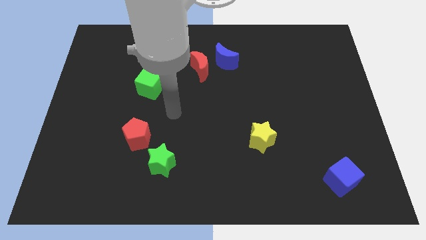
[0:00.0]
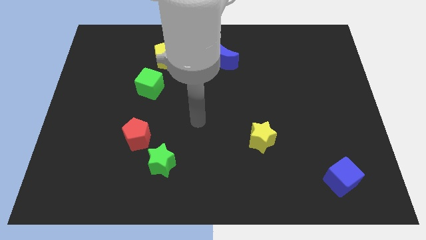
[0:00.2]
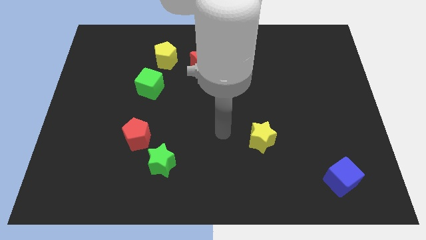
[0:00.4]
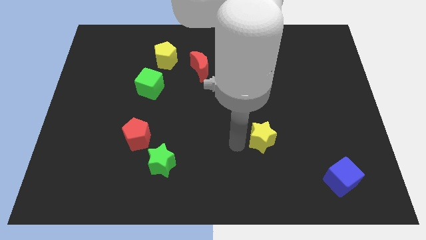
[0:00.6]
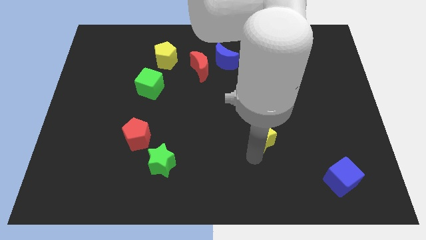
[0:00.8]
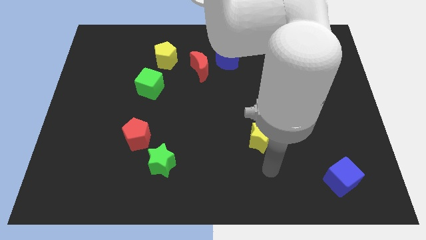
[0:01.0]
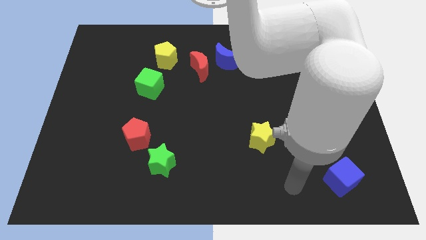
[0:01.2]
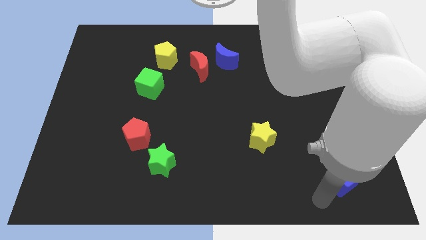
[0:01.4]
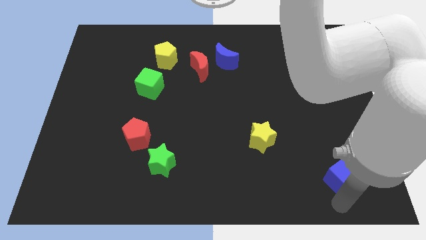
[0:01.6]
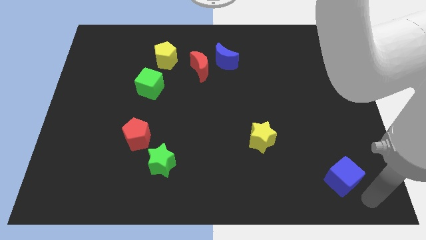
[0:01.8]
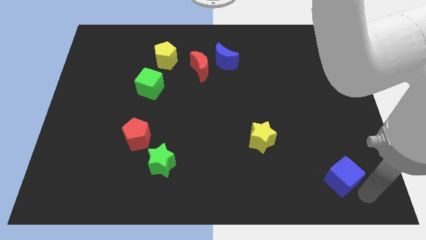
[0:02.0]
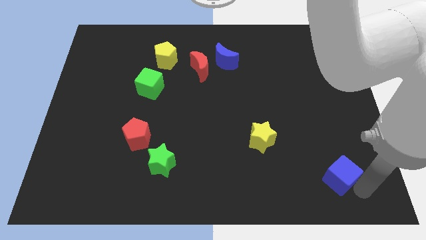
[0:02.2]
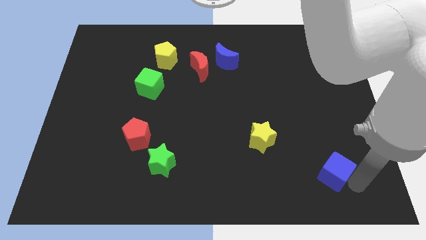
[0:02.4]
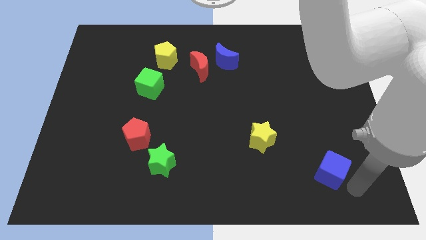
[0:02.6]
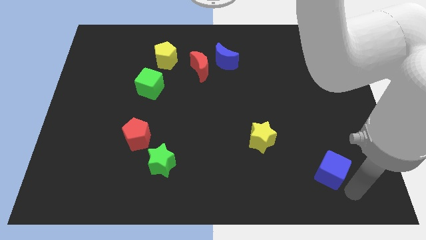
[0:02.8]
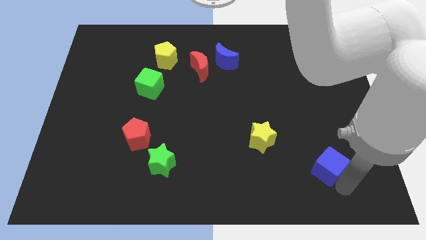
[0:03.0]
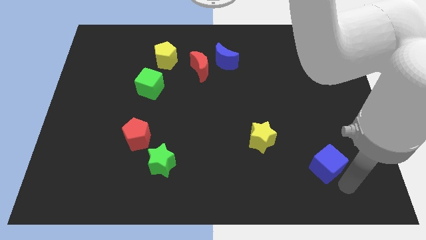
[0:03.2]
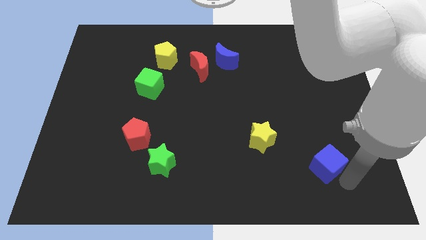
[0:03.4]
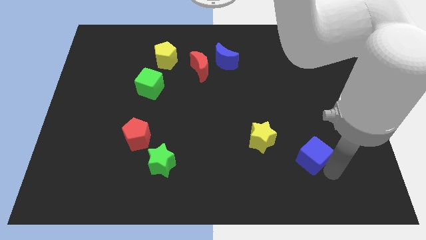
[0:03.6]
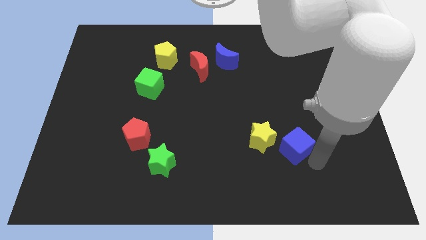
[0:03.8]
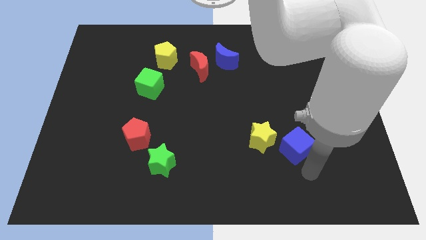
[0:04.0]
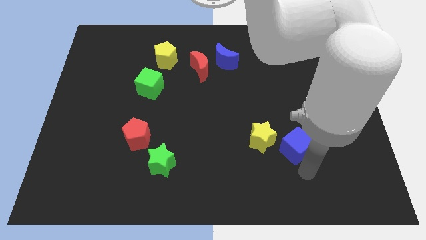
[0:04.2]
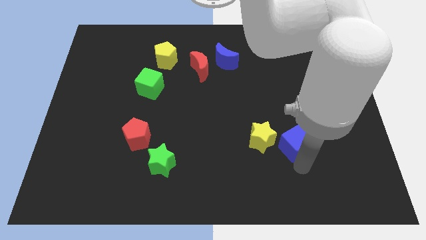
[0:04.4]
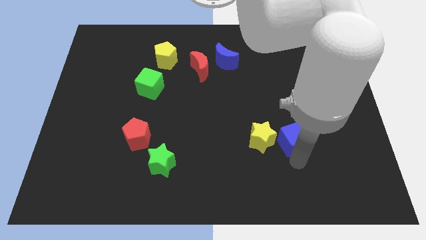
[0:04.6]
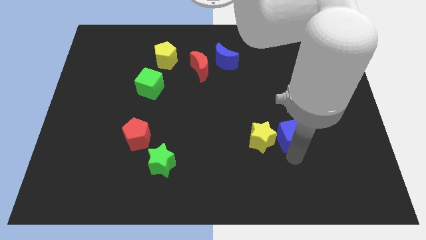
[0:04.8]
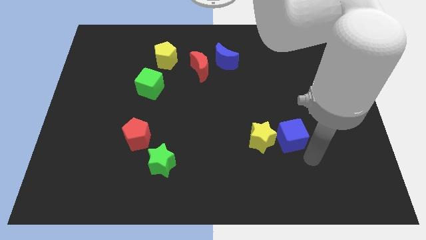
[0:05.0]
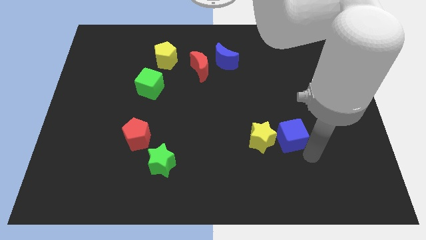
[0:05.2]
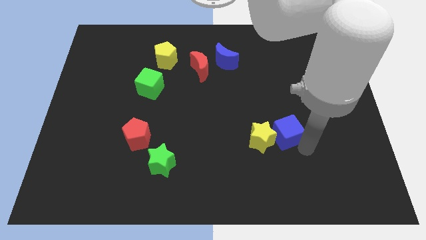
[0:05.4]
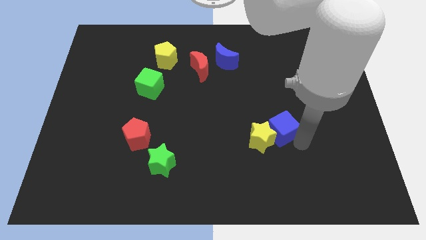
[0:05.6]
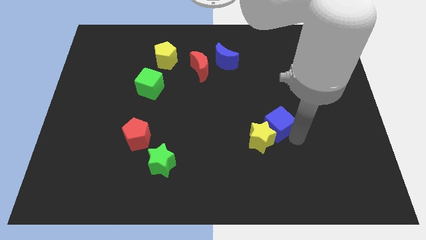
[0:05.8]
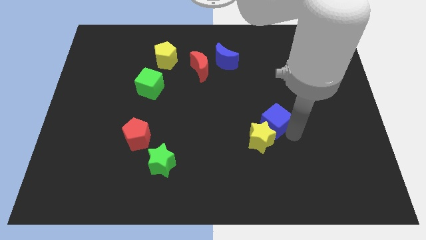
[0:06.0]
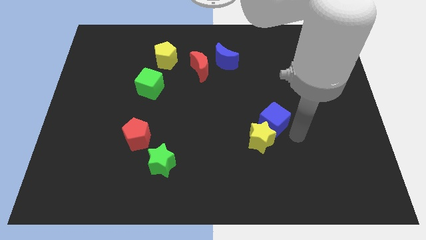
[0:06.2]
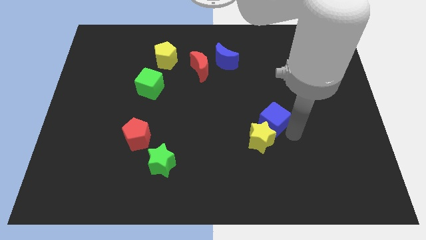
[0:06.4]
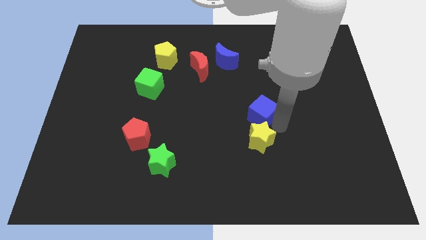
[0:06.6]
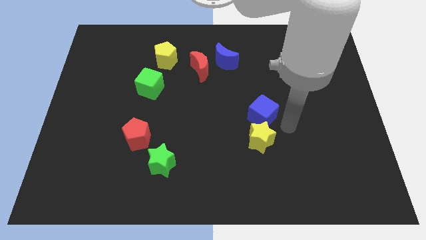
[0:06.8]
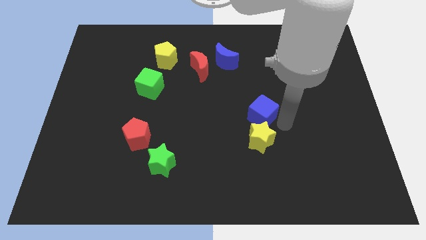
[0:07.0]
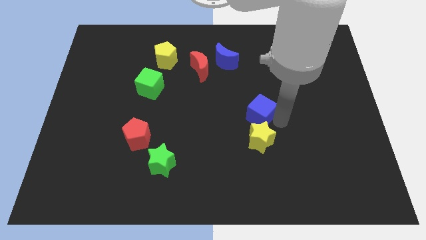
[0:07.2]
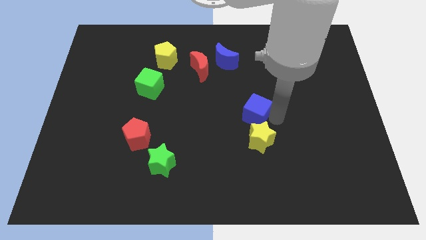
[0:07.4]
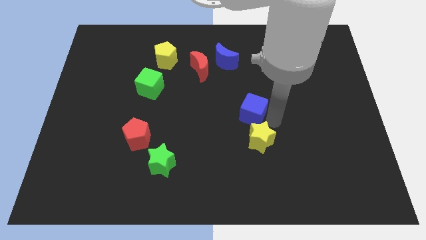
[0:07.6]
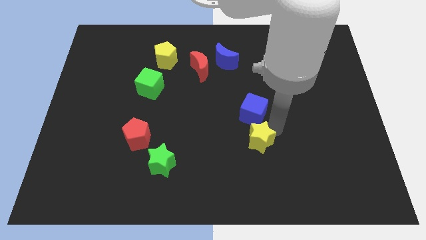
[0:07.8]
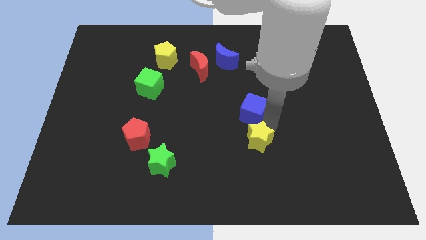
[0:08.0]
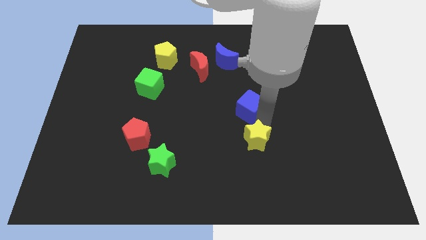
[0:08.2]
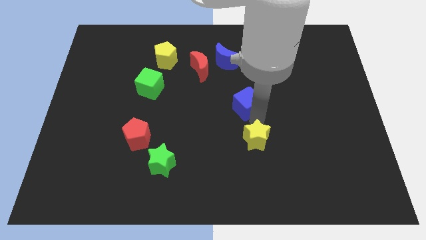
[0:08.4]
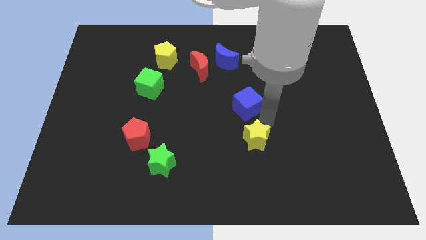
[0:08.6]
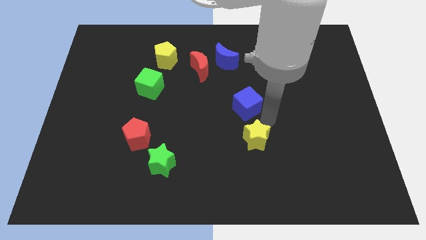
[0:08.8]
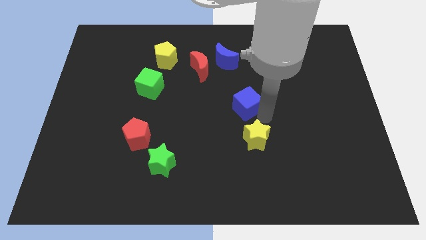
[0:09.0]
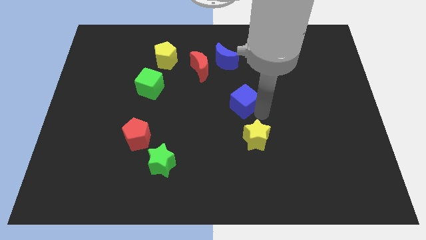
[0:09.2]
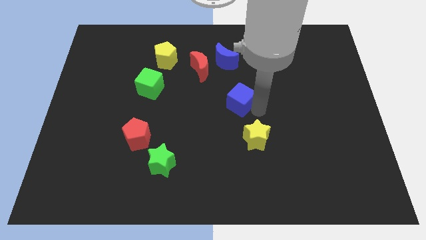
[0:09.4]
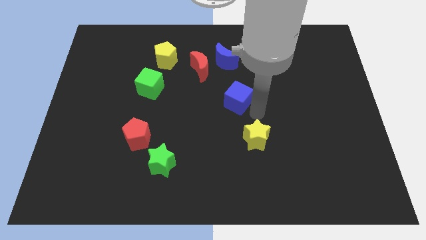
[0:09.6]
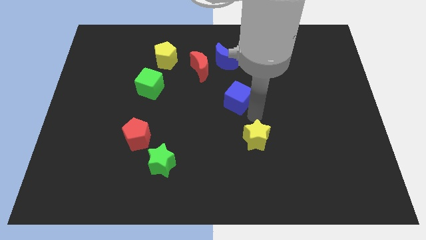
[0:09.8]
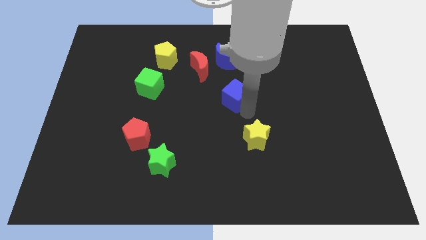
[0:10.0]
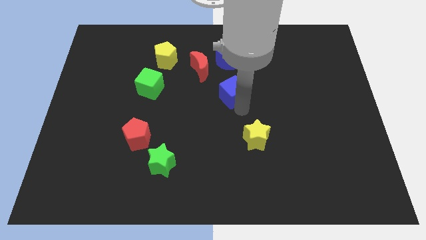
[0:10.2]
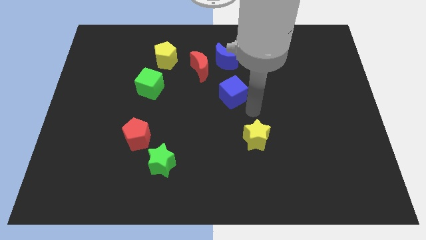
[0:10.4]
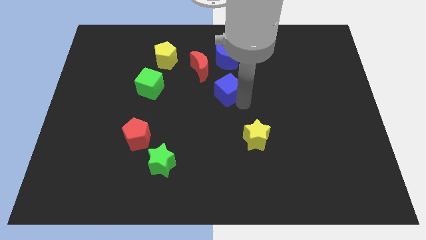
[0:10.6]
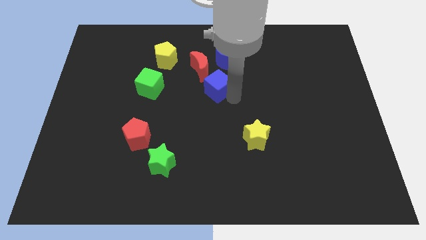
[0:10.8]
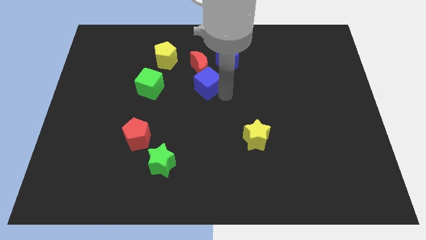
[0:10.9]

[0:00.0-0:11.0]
put the blue cube next to the red moon
